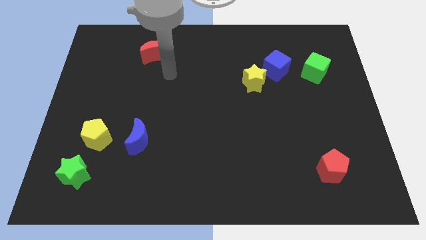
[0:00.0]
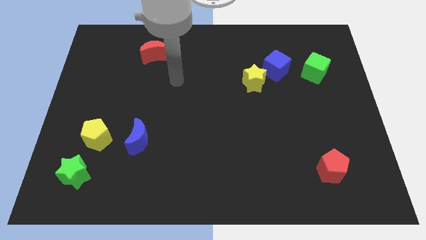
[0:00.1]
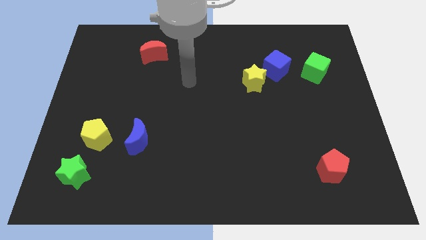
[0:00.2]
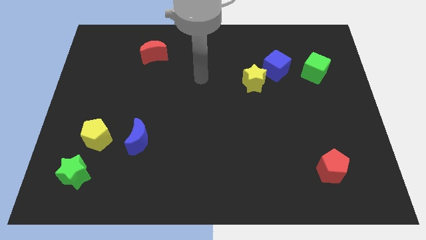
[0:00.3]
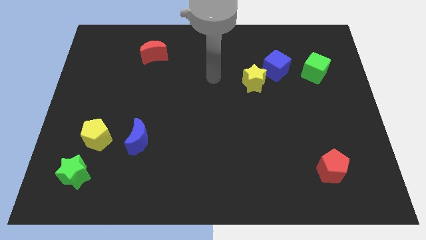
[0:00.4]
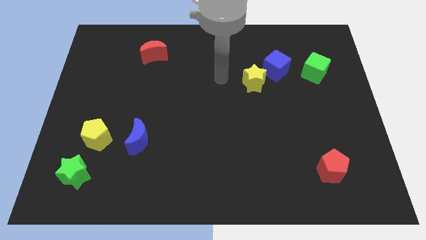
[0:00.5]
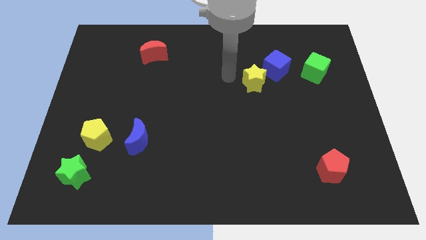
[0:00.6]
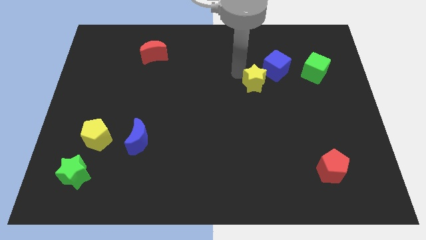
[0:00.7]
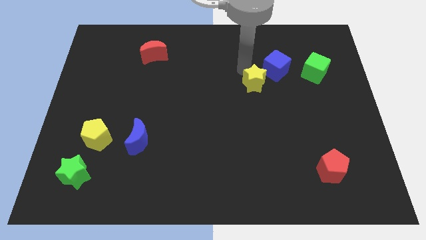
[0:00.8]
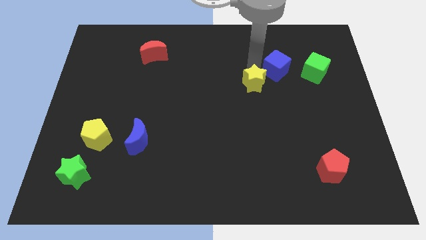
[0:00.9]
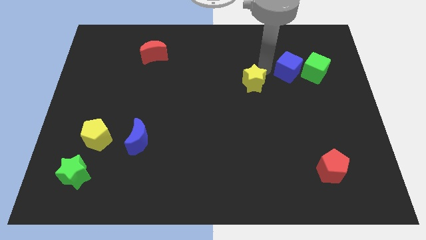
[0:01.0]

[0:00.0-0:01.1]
separate the yellow star from the blue cube

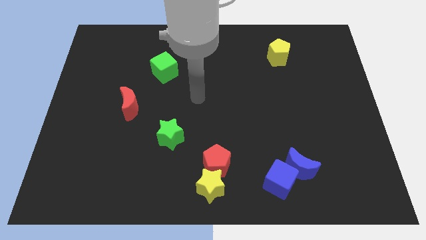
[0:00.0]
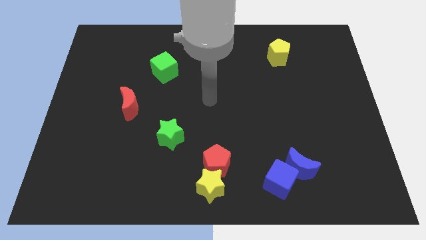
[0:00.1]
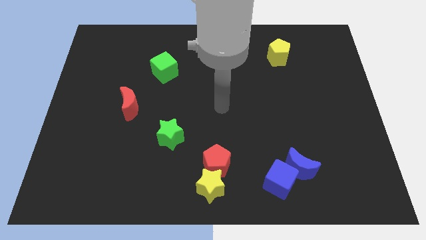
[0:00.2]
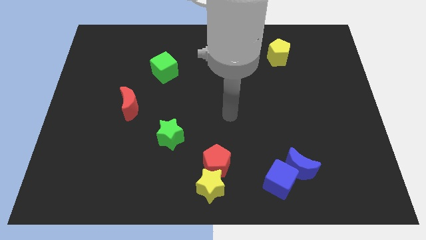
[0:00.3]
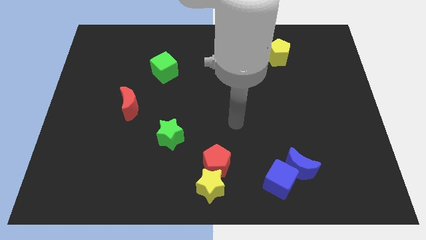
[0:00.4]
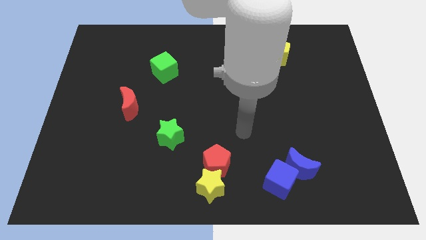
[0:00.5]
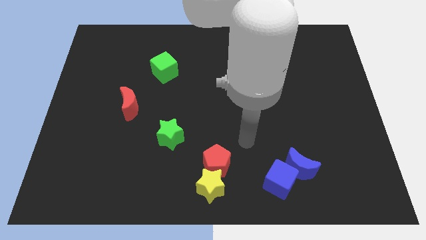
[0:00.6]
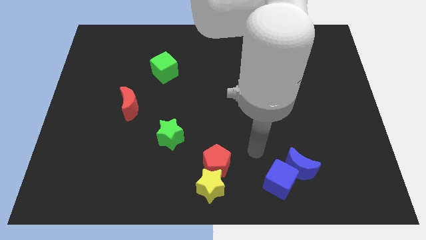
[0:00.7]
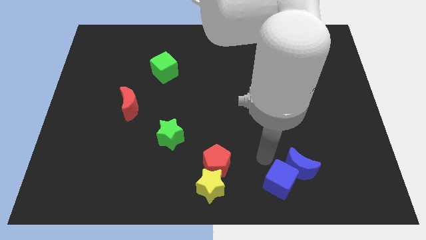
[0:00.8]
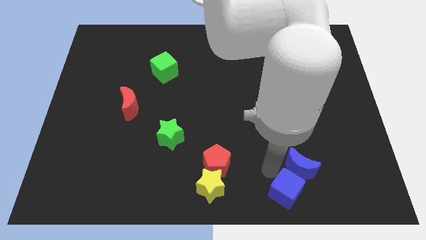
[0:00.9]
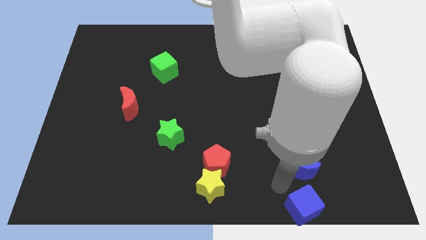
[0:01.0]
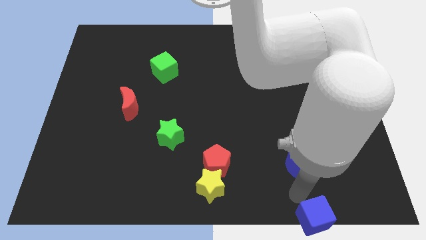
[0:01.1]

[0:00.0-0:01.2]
separate the blue moon from the blue cube

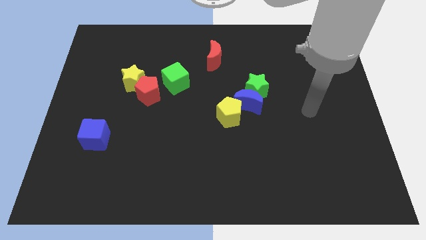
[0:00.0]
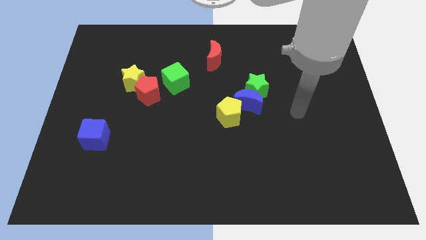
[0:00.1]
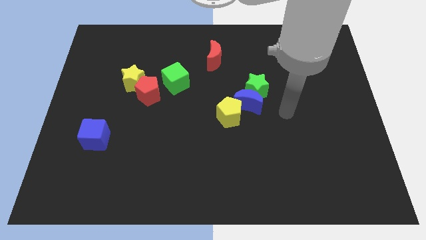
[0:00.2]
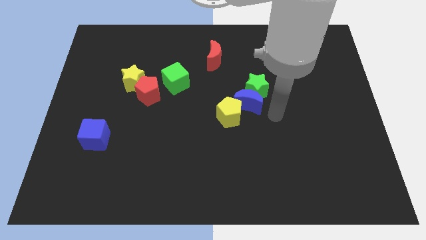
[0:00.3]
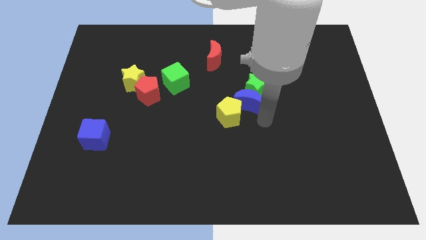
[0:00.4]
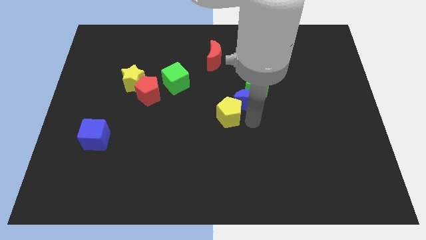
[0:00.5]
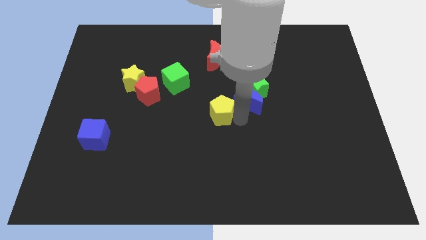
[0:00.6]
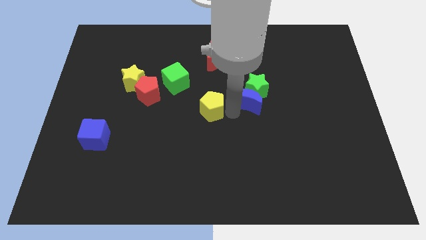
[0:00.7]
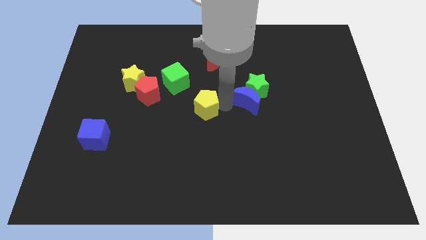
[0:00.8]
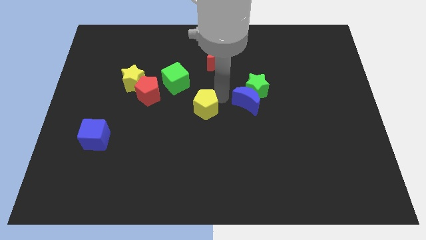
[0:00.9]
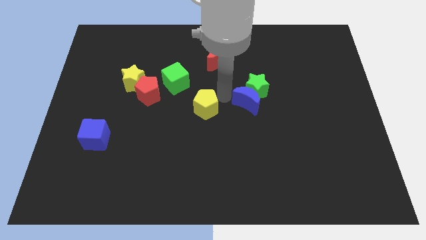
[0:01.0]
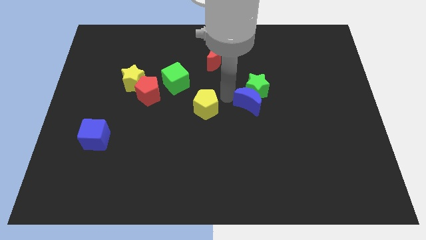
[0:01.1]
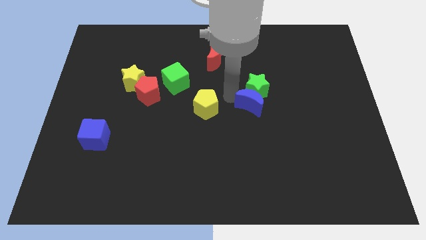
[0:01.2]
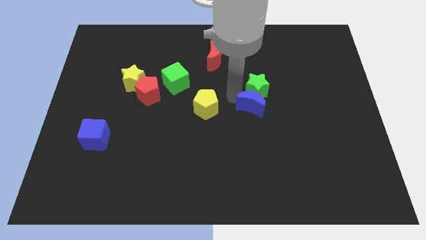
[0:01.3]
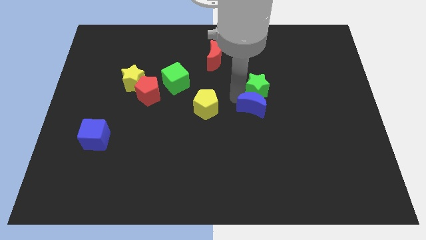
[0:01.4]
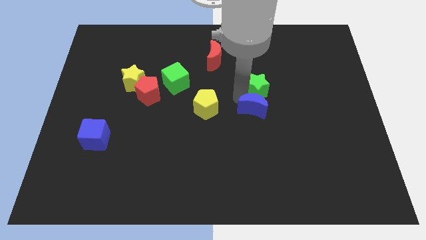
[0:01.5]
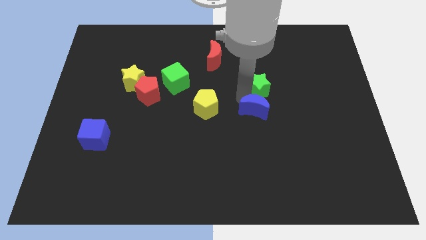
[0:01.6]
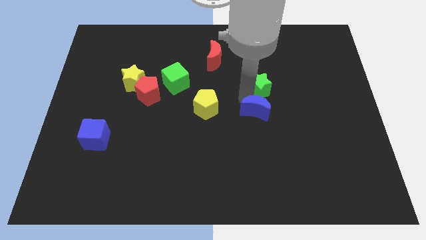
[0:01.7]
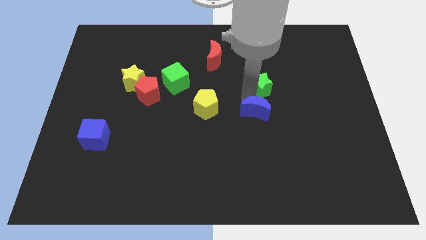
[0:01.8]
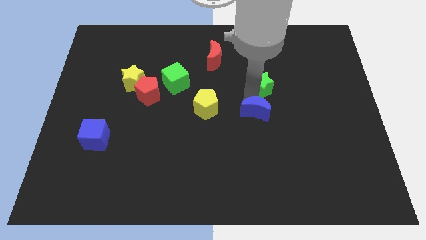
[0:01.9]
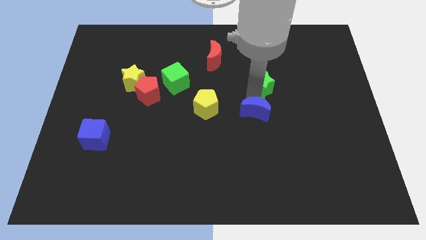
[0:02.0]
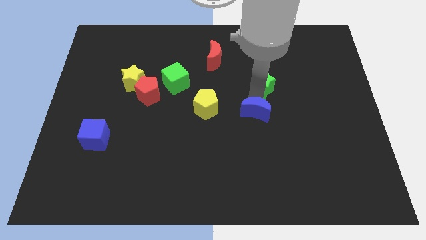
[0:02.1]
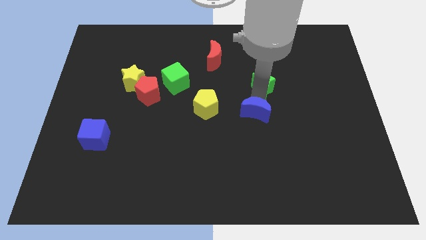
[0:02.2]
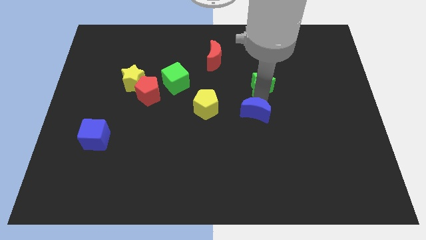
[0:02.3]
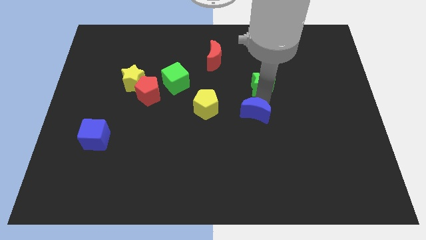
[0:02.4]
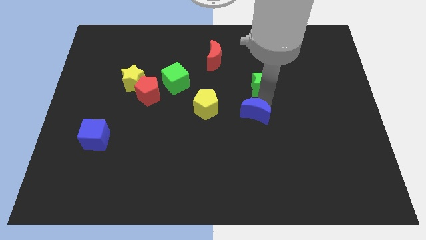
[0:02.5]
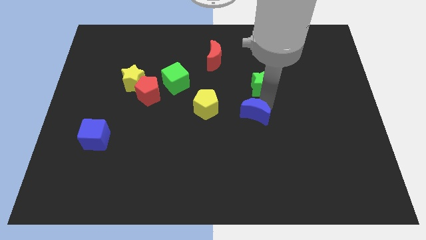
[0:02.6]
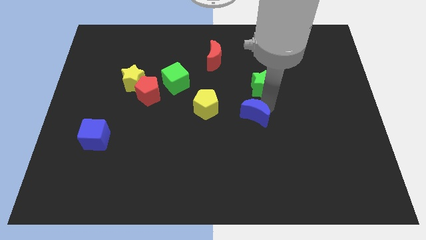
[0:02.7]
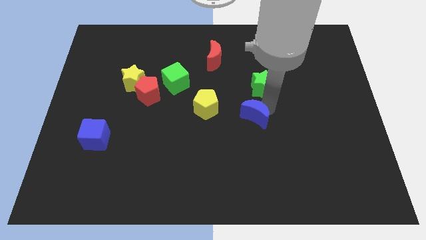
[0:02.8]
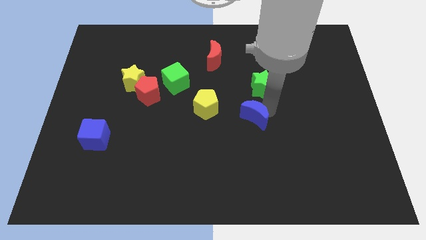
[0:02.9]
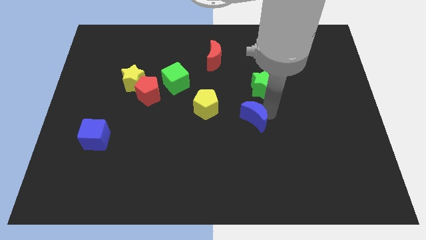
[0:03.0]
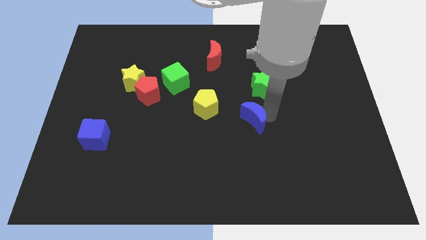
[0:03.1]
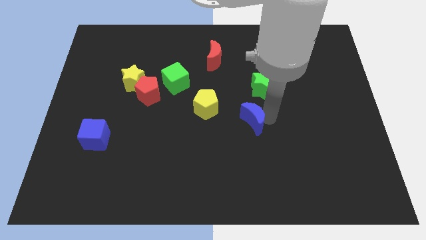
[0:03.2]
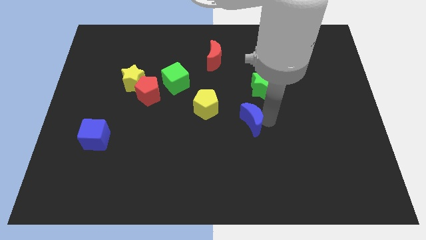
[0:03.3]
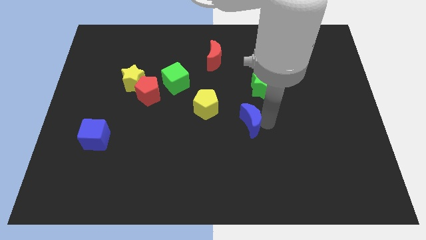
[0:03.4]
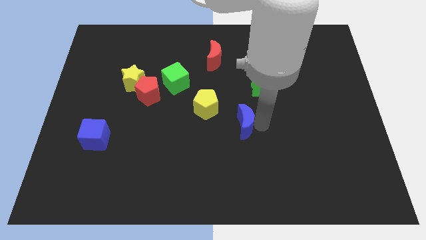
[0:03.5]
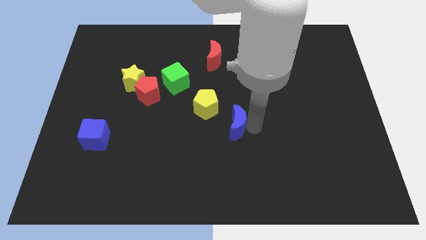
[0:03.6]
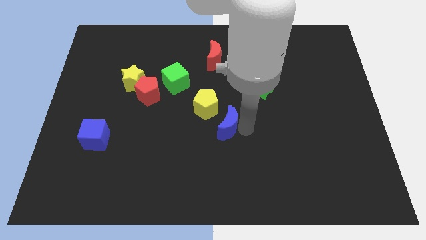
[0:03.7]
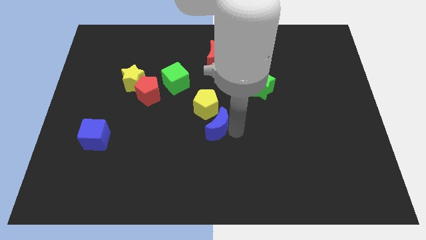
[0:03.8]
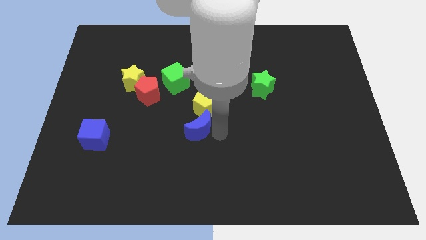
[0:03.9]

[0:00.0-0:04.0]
separate the blue moon from the green star and yellow pentagon

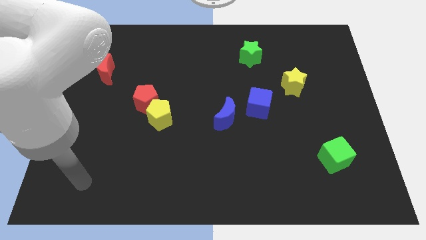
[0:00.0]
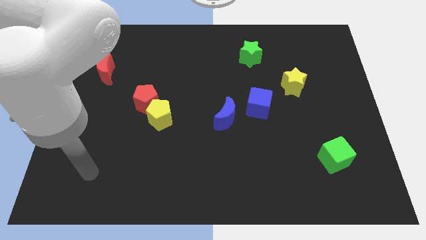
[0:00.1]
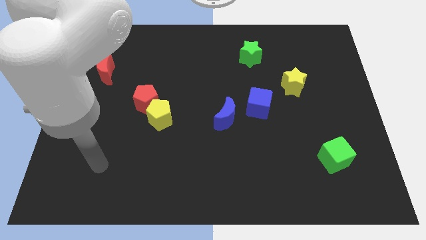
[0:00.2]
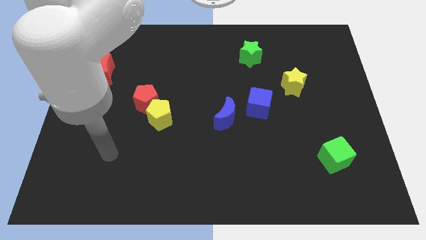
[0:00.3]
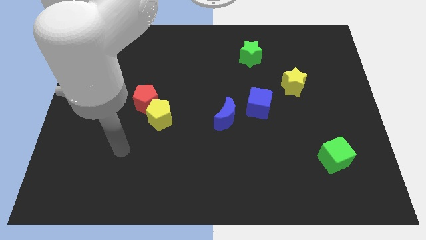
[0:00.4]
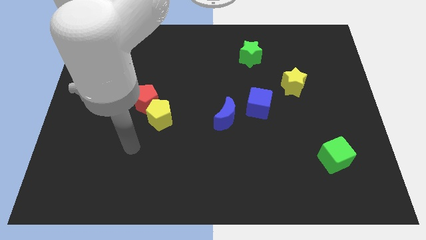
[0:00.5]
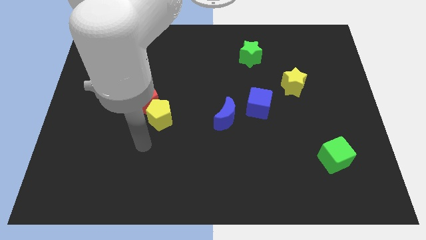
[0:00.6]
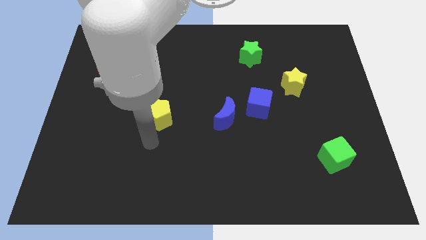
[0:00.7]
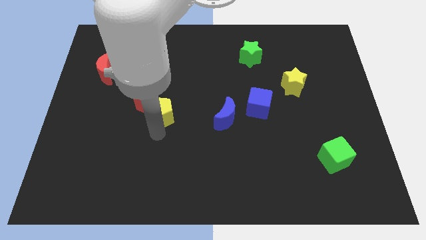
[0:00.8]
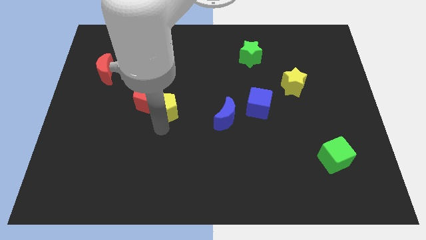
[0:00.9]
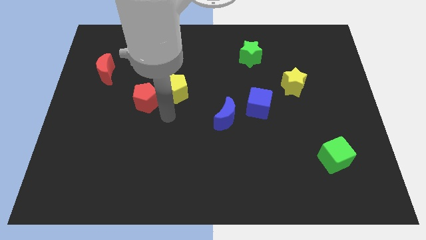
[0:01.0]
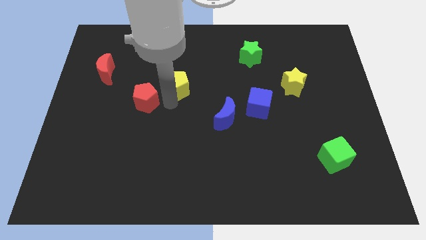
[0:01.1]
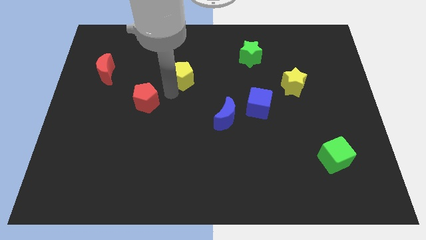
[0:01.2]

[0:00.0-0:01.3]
pull the red pentagon apart from the yellow pentagon

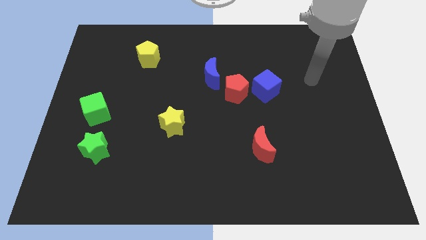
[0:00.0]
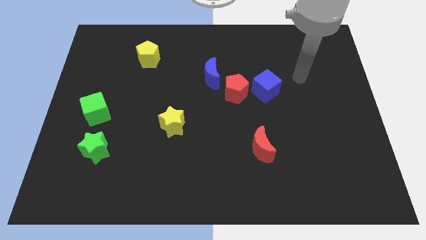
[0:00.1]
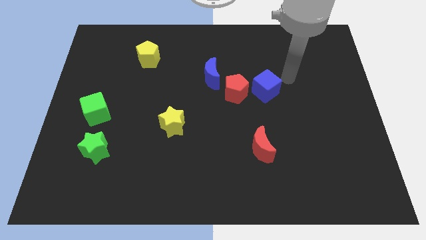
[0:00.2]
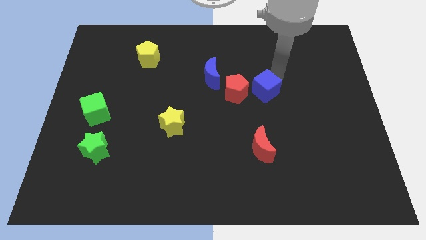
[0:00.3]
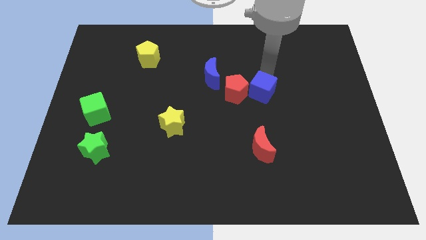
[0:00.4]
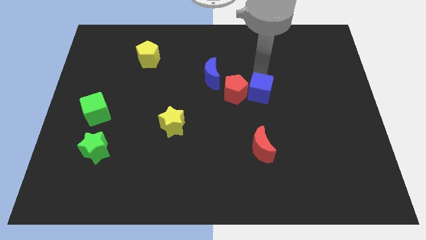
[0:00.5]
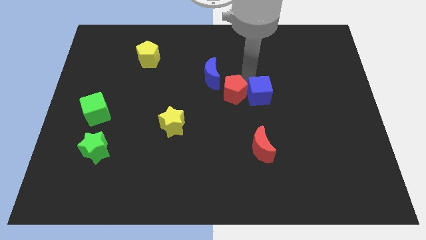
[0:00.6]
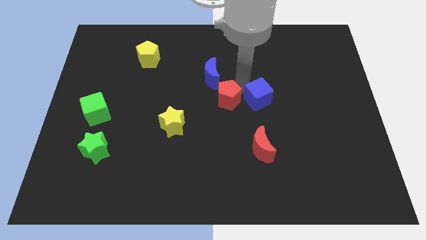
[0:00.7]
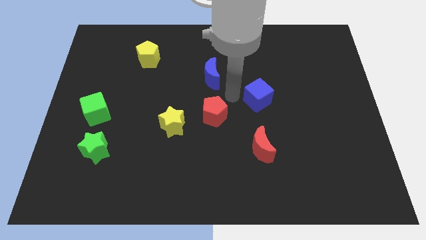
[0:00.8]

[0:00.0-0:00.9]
pull the blue cube apart from the red pentagon

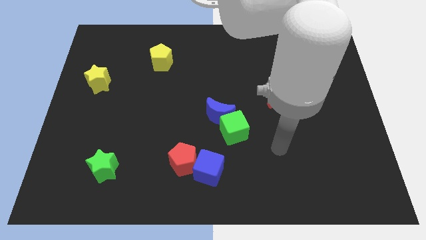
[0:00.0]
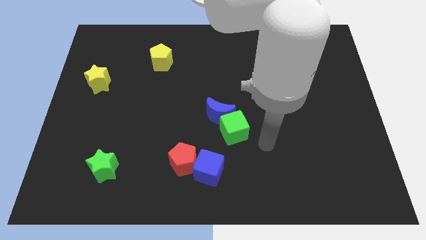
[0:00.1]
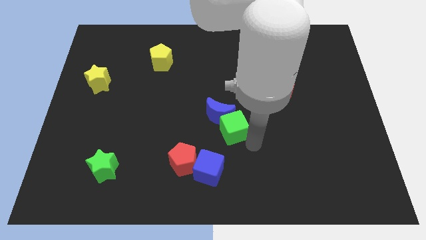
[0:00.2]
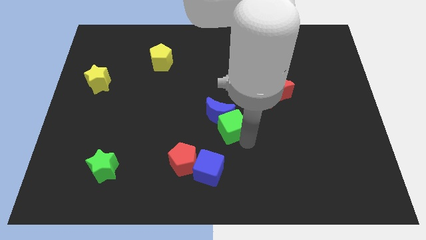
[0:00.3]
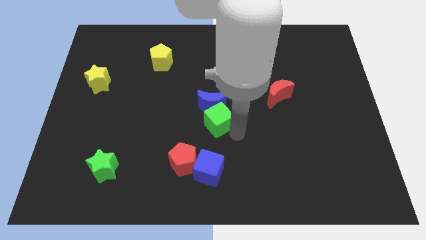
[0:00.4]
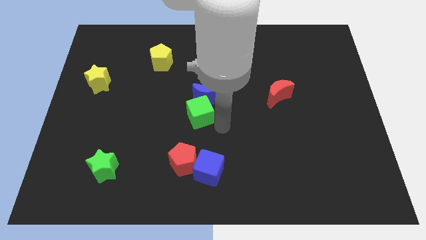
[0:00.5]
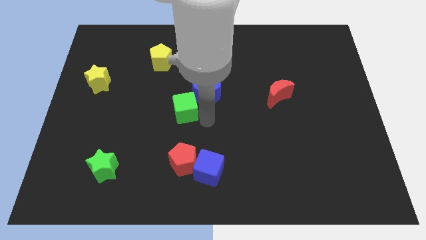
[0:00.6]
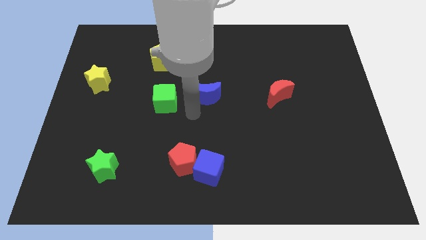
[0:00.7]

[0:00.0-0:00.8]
pull the blue moon apart from the green cube
